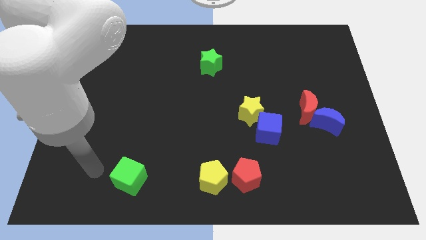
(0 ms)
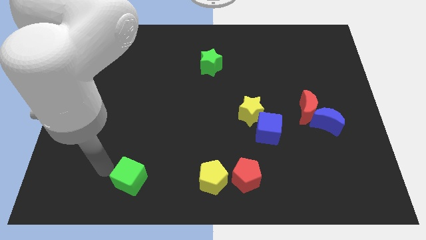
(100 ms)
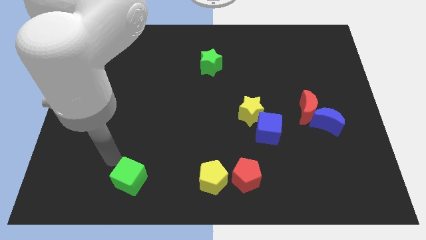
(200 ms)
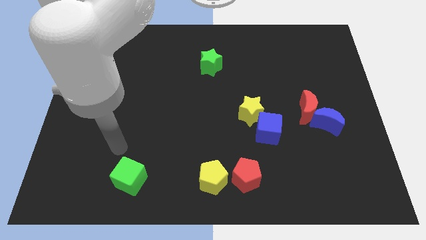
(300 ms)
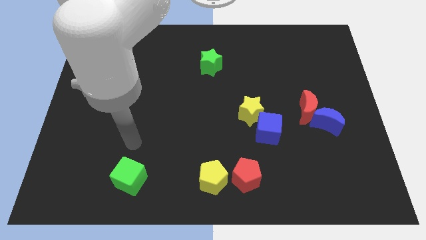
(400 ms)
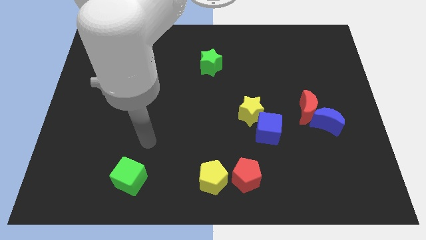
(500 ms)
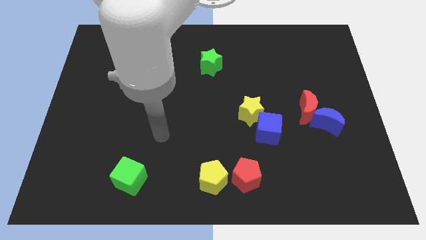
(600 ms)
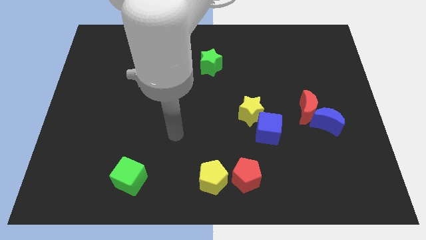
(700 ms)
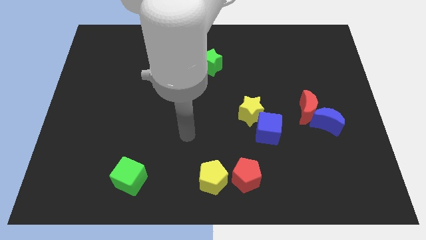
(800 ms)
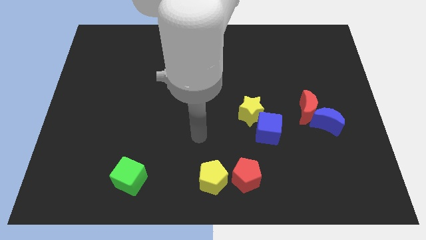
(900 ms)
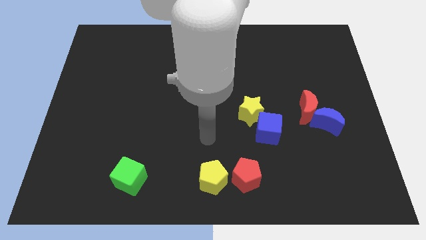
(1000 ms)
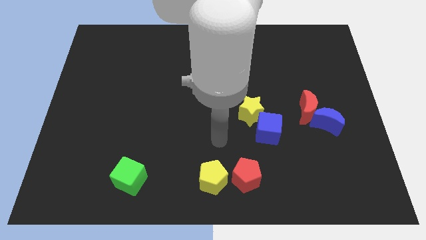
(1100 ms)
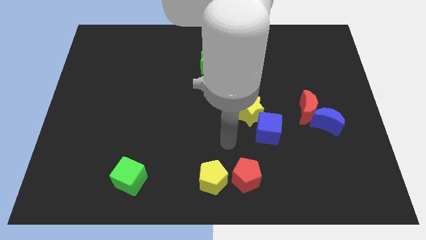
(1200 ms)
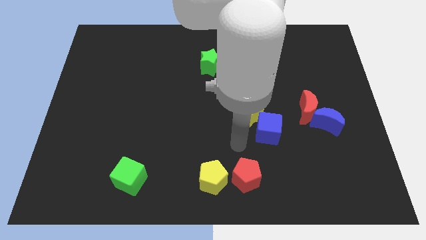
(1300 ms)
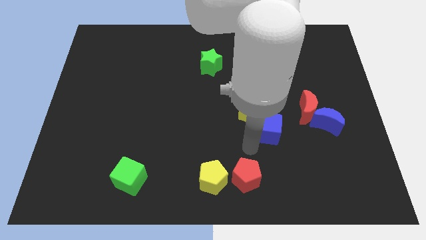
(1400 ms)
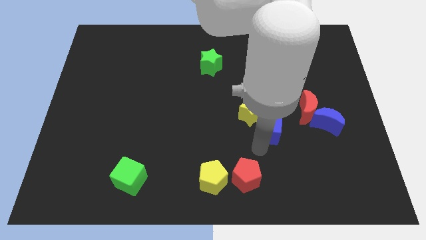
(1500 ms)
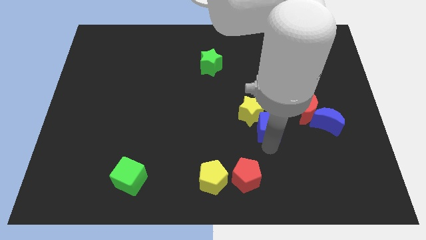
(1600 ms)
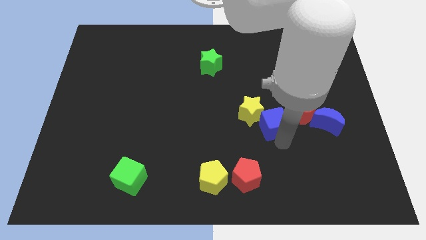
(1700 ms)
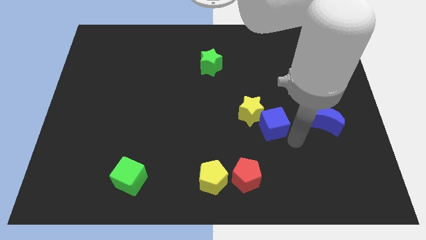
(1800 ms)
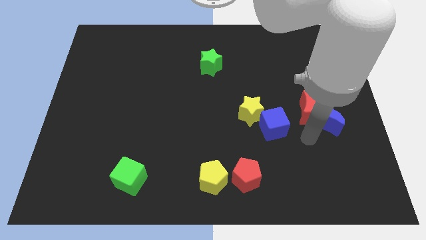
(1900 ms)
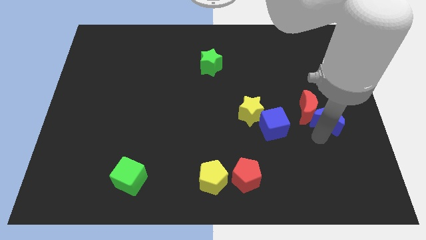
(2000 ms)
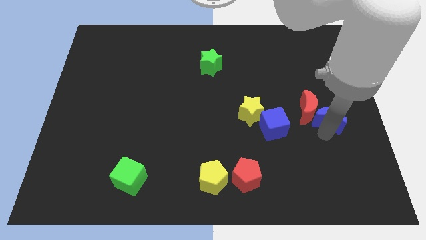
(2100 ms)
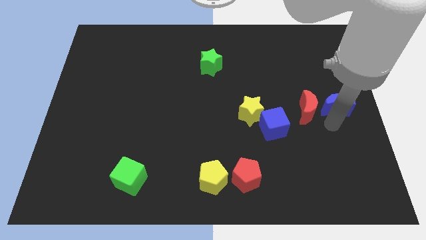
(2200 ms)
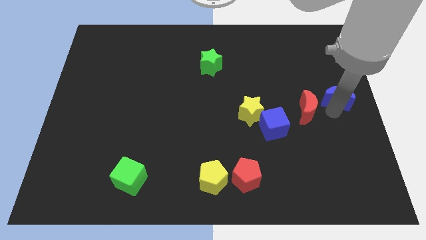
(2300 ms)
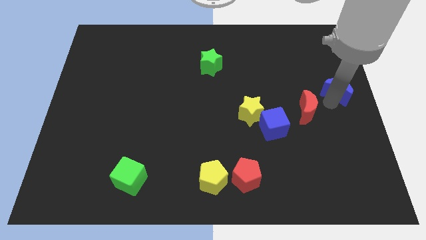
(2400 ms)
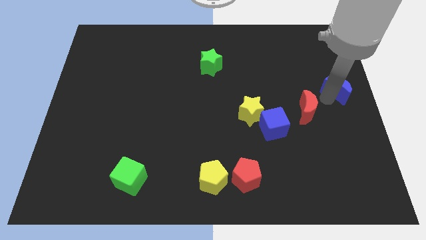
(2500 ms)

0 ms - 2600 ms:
move the red moon away from the blue moon

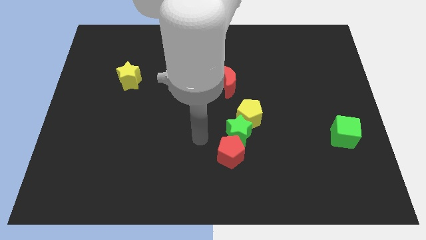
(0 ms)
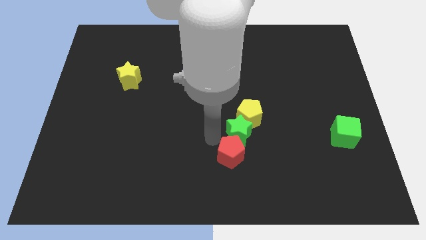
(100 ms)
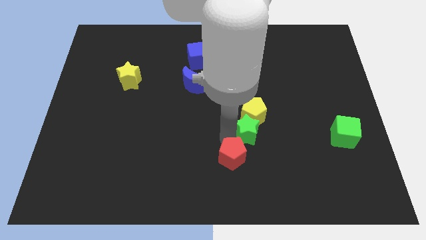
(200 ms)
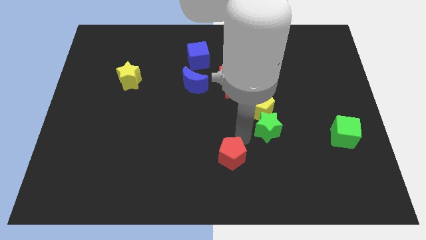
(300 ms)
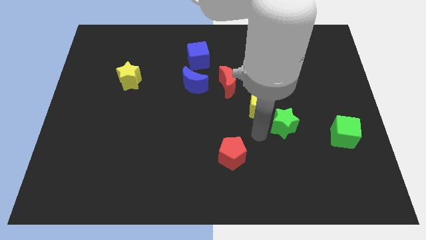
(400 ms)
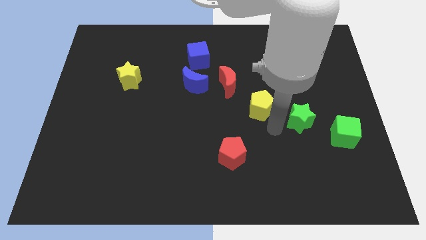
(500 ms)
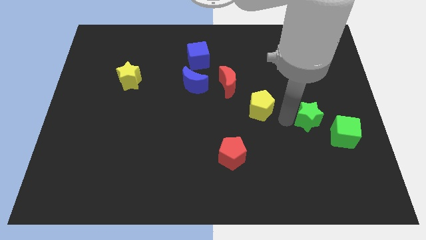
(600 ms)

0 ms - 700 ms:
move the yellow pentagon away from the green star

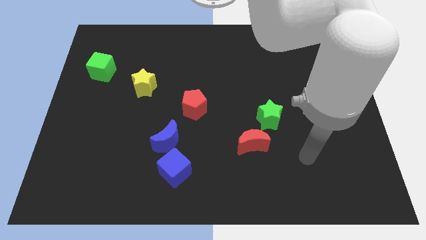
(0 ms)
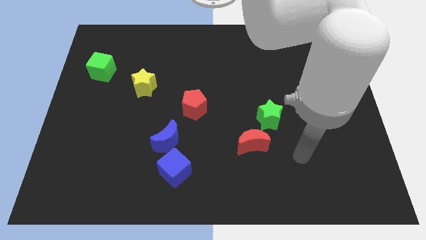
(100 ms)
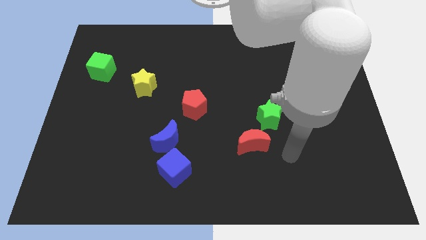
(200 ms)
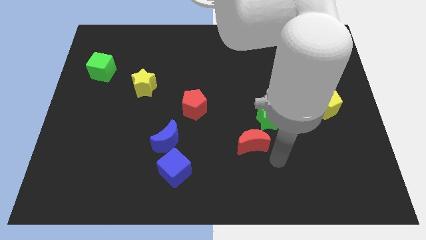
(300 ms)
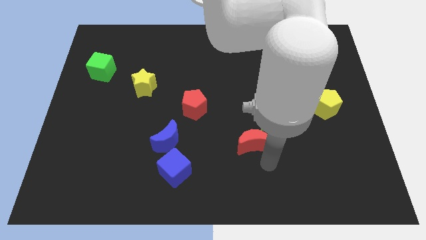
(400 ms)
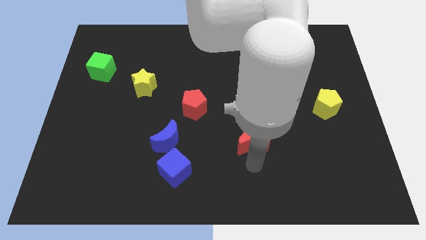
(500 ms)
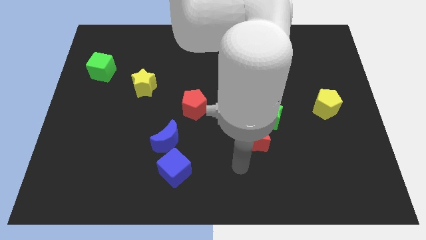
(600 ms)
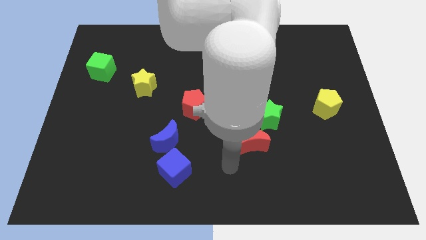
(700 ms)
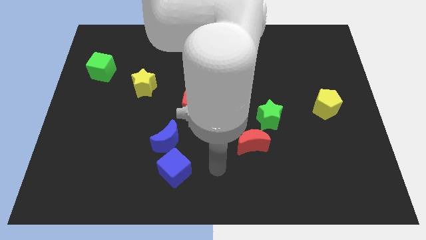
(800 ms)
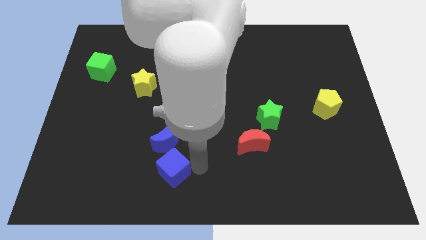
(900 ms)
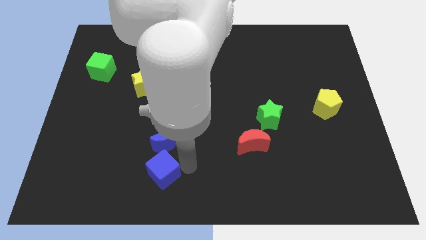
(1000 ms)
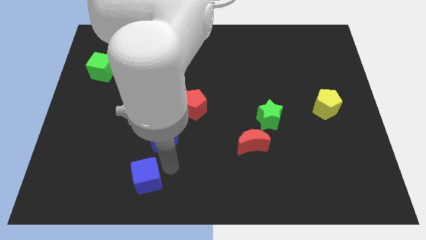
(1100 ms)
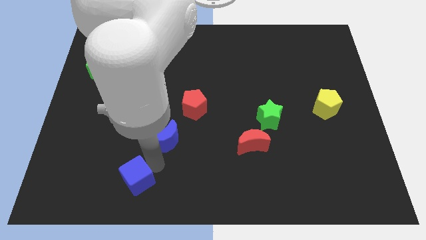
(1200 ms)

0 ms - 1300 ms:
pull the blue moon apart from the blue cube

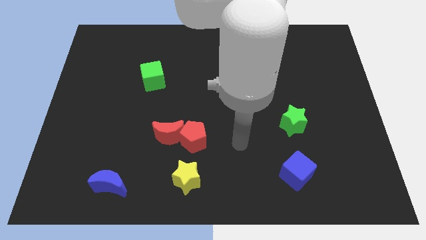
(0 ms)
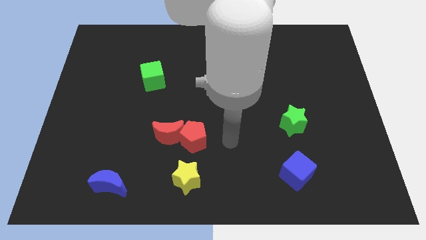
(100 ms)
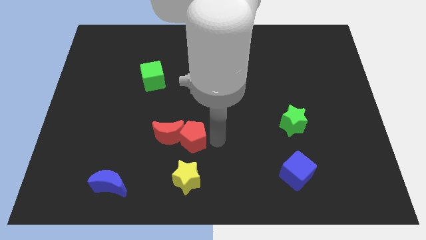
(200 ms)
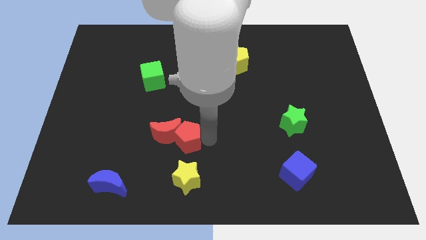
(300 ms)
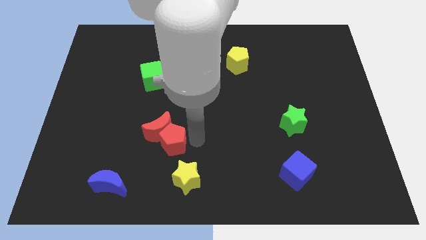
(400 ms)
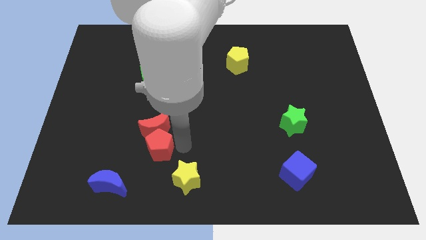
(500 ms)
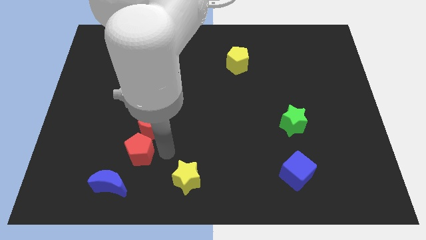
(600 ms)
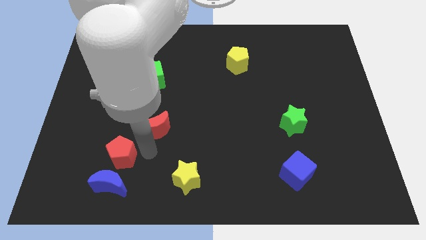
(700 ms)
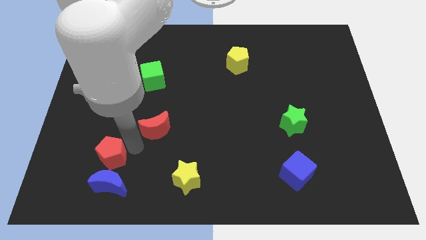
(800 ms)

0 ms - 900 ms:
separate the red moon from the red pentagon

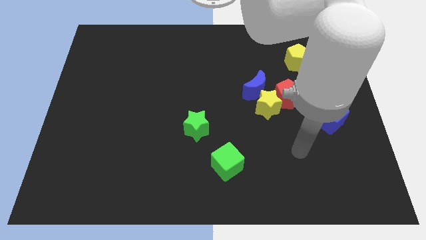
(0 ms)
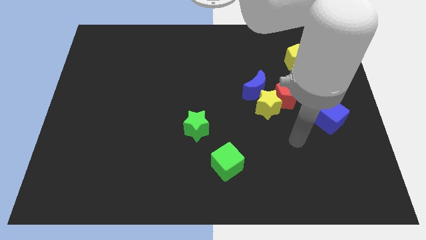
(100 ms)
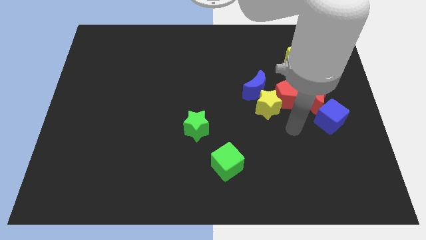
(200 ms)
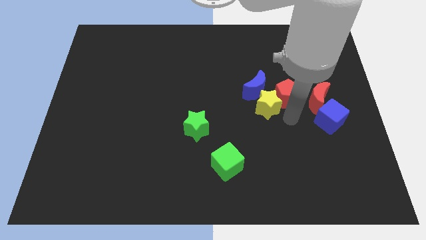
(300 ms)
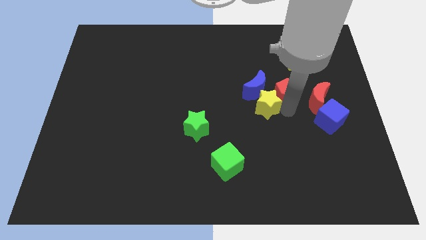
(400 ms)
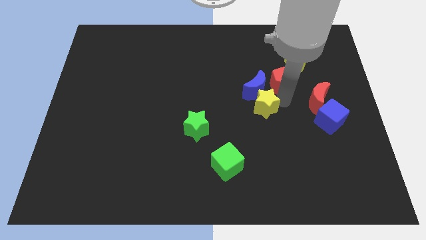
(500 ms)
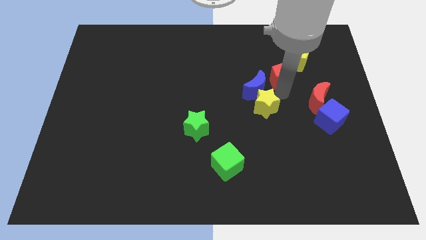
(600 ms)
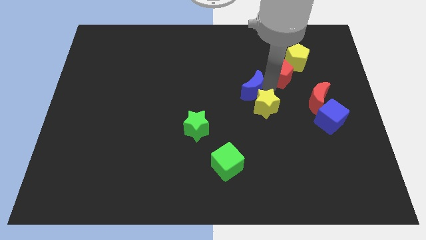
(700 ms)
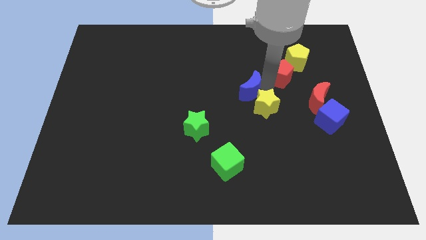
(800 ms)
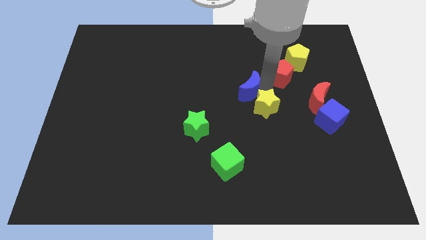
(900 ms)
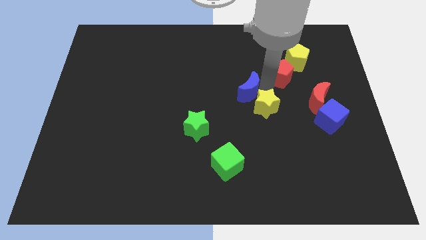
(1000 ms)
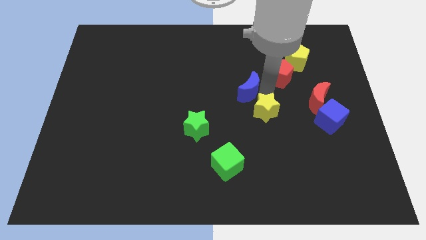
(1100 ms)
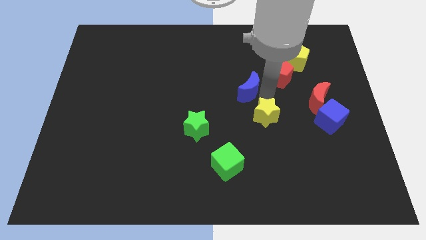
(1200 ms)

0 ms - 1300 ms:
pull the yellow star apart from the red pentagon and blue moon

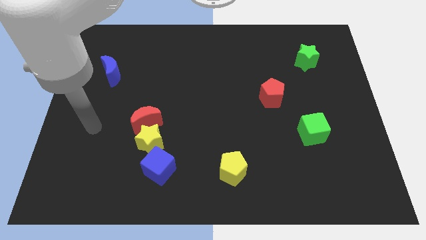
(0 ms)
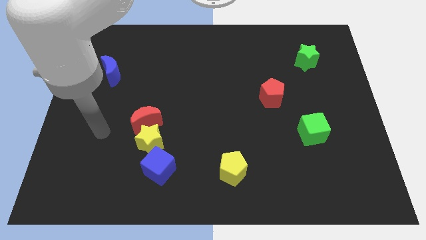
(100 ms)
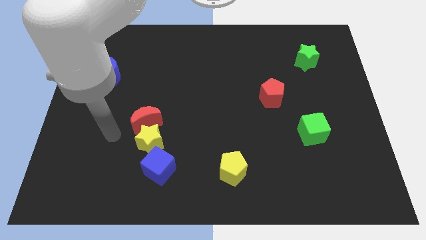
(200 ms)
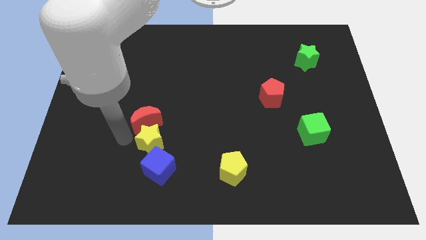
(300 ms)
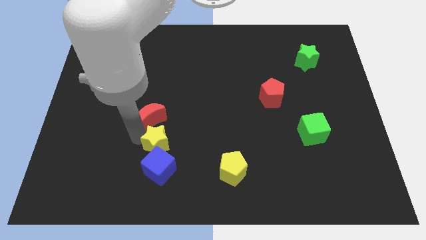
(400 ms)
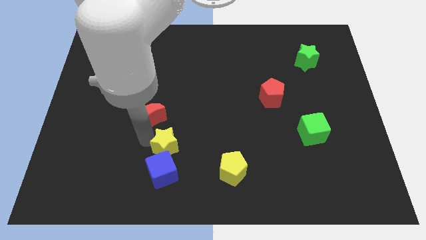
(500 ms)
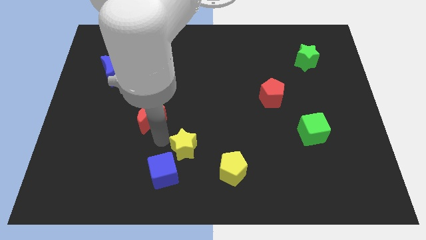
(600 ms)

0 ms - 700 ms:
pull the red moon apart from the yellow star

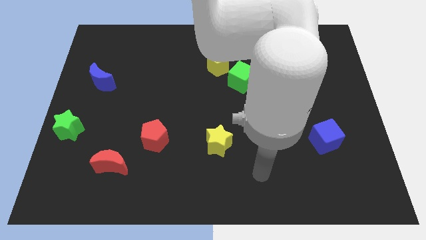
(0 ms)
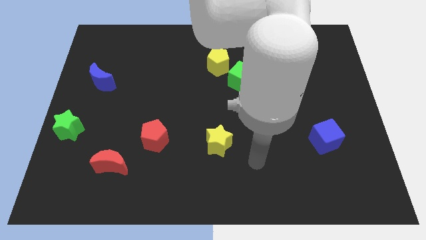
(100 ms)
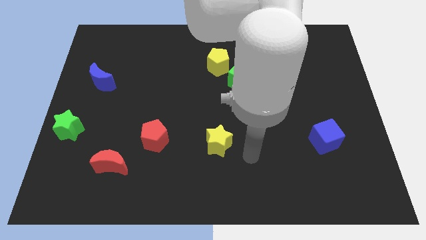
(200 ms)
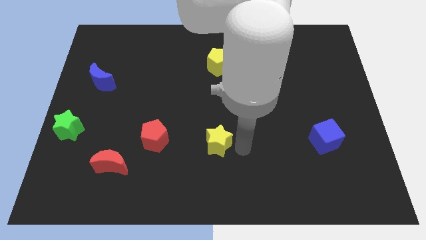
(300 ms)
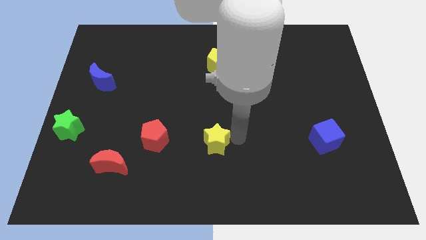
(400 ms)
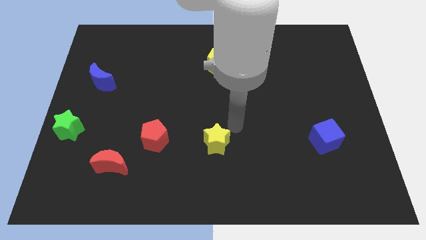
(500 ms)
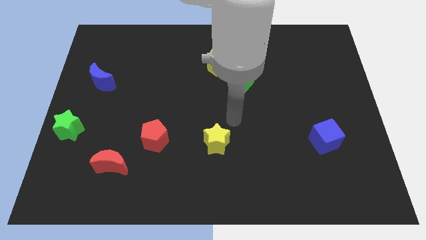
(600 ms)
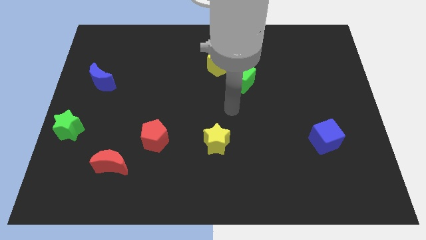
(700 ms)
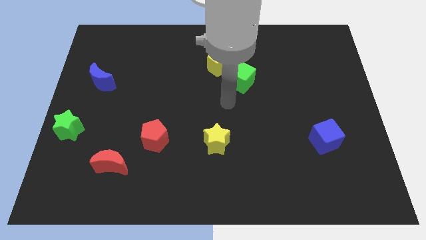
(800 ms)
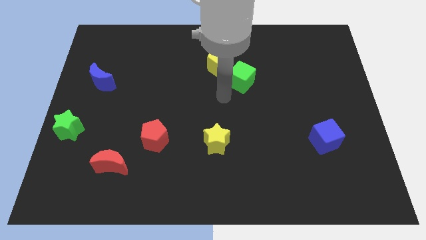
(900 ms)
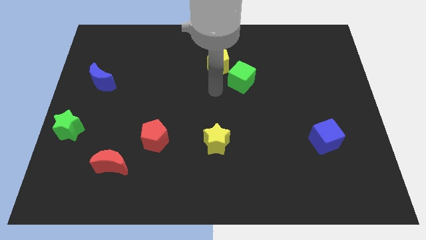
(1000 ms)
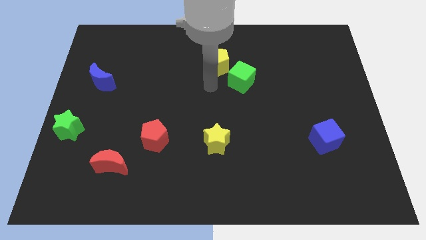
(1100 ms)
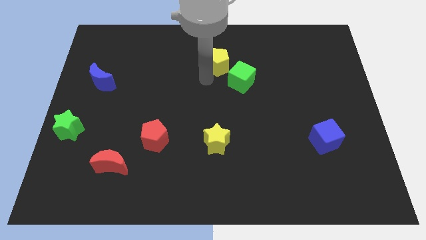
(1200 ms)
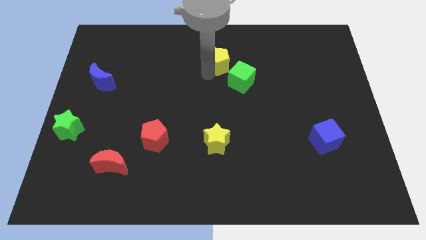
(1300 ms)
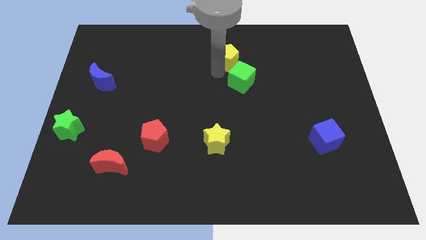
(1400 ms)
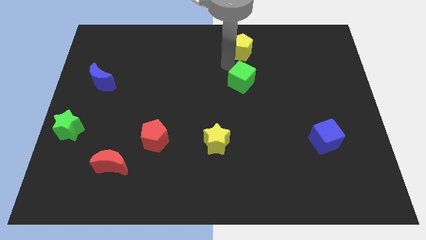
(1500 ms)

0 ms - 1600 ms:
pull the green cube apart from the yellow pentagon

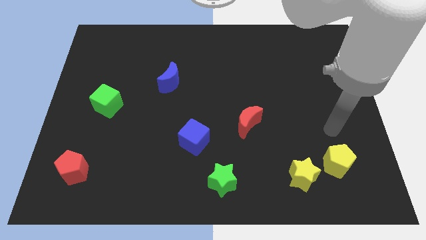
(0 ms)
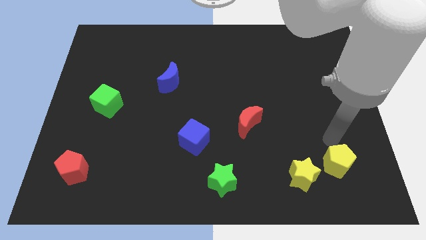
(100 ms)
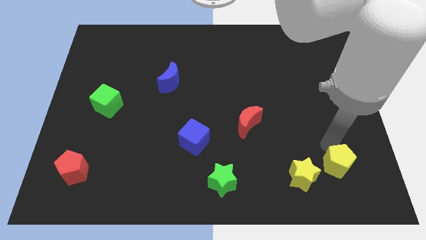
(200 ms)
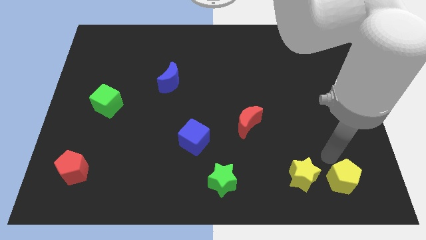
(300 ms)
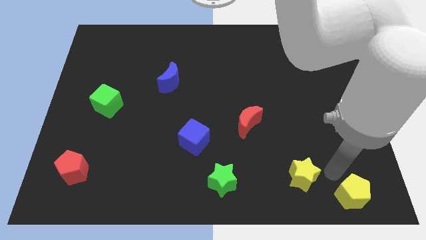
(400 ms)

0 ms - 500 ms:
separate the yellow star from the yellow pentagon
